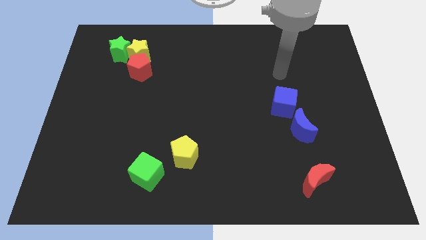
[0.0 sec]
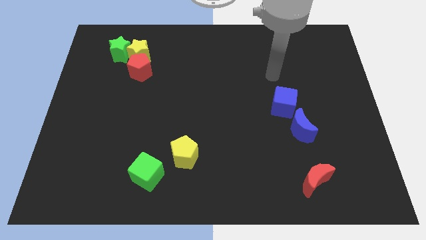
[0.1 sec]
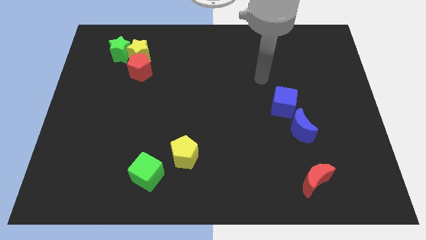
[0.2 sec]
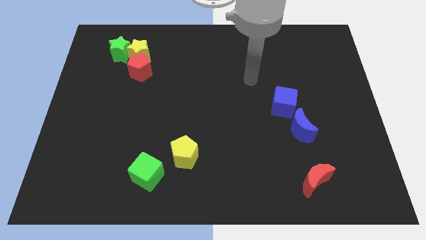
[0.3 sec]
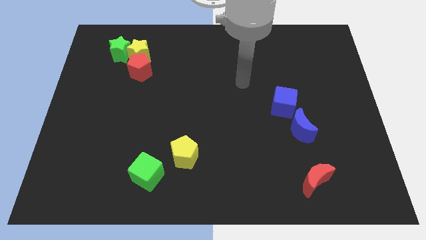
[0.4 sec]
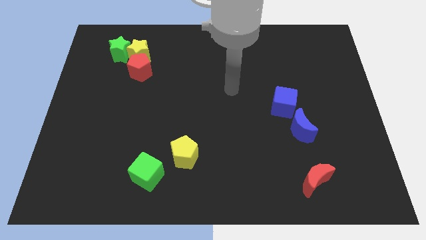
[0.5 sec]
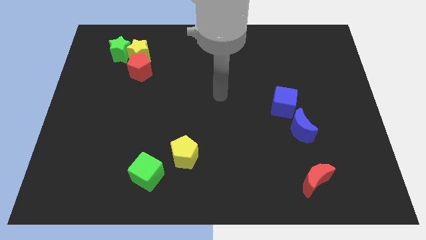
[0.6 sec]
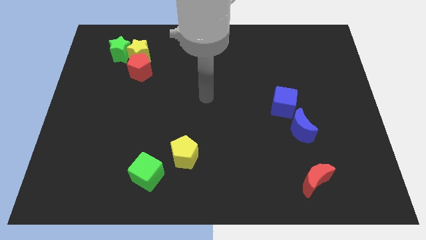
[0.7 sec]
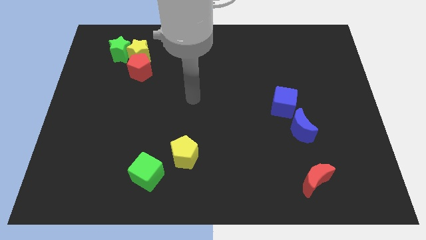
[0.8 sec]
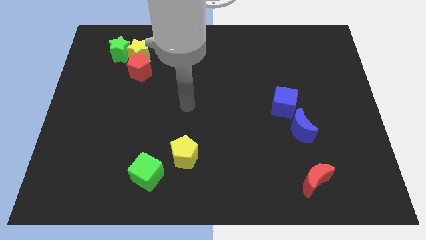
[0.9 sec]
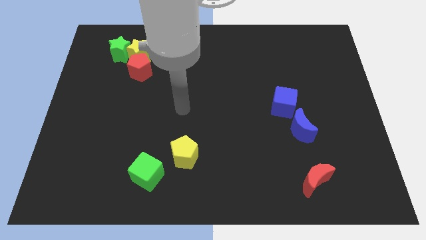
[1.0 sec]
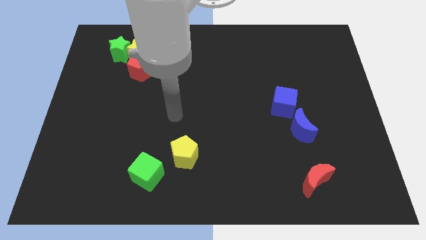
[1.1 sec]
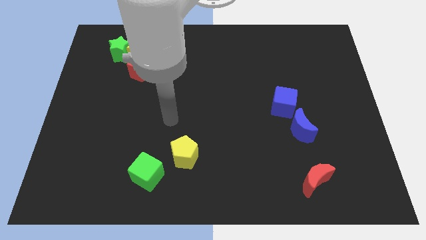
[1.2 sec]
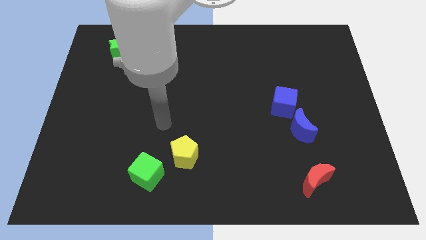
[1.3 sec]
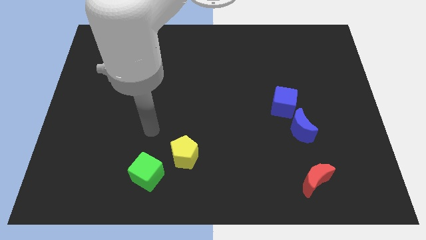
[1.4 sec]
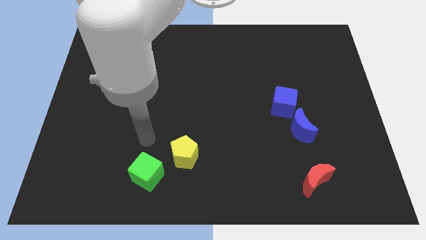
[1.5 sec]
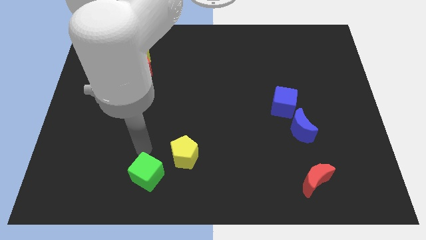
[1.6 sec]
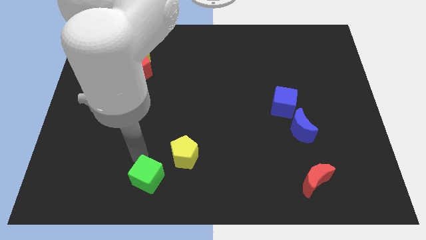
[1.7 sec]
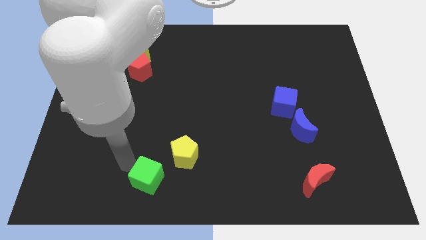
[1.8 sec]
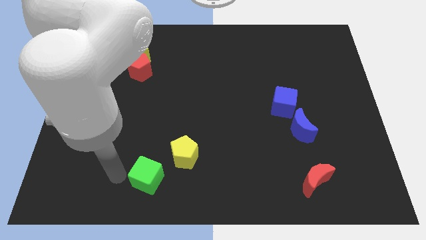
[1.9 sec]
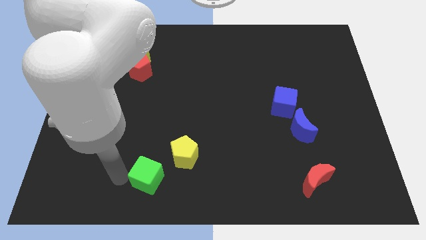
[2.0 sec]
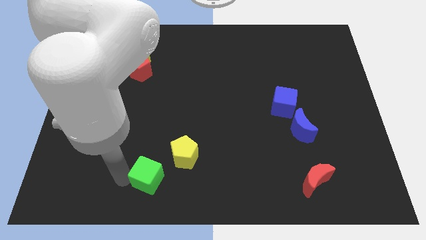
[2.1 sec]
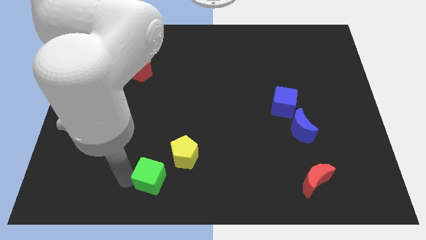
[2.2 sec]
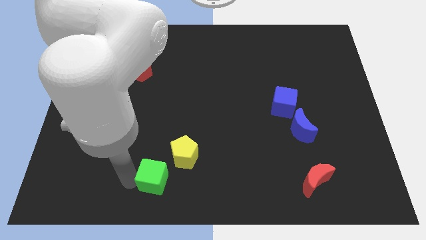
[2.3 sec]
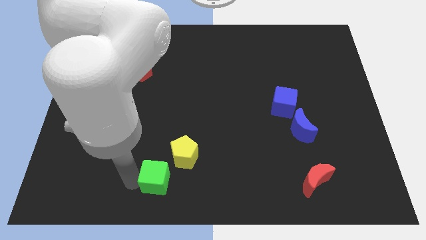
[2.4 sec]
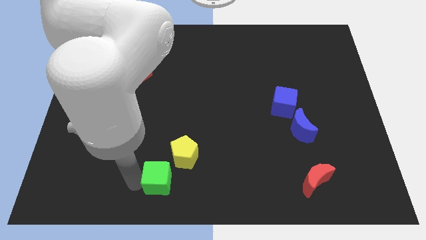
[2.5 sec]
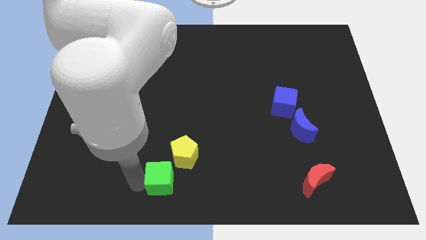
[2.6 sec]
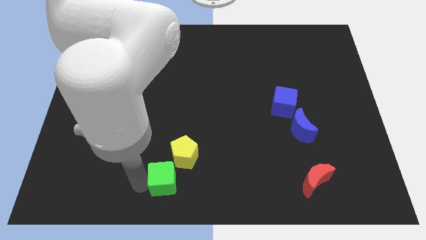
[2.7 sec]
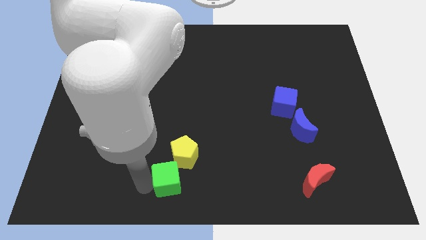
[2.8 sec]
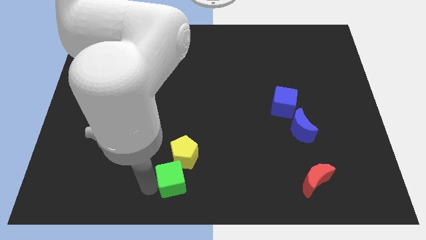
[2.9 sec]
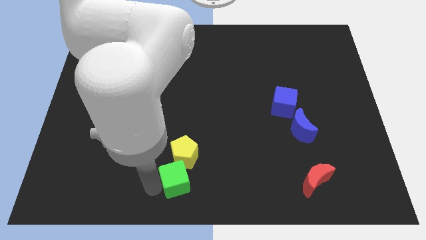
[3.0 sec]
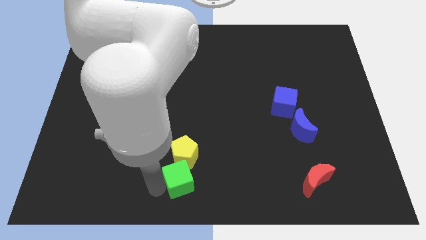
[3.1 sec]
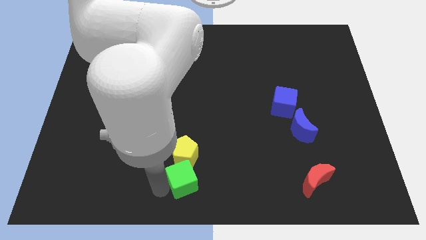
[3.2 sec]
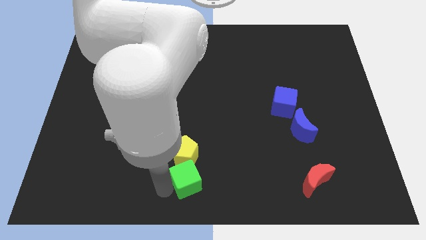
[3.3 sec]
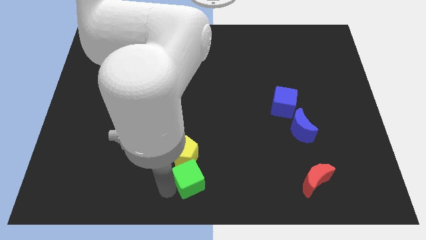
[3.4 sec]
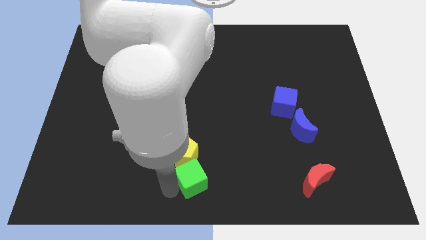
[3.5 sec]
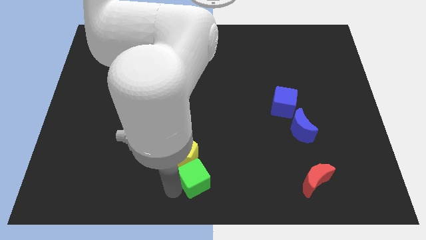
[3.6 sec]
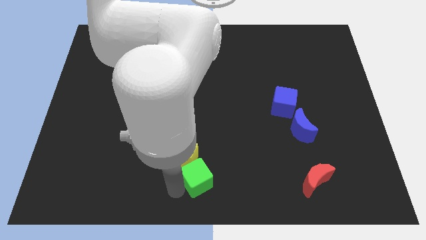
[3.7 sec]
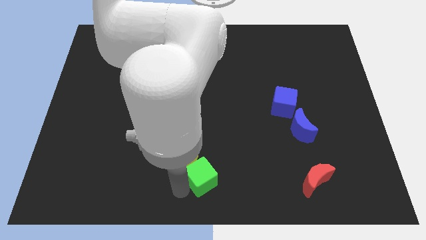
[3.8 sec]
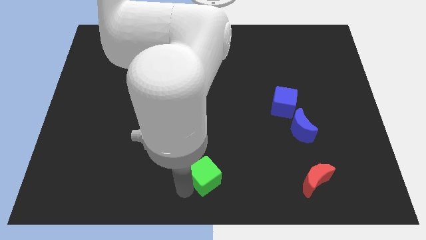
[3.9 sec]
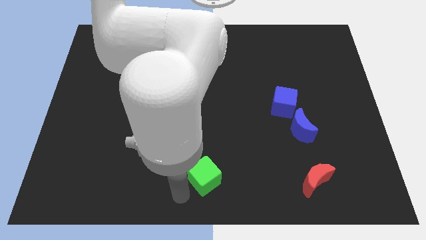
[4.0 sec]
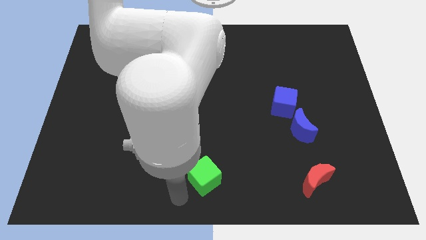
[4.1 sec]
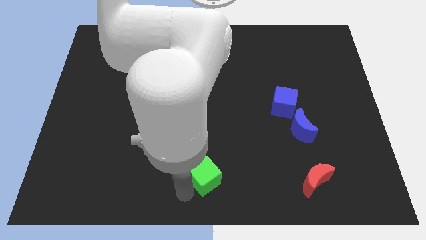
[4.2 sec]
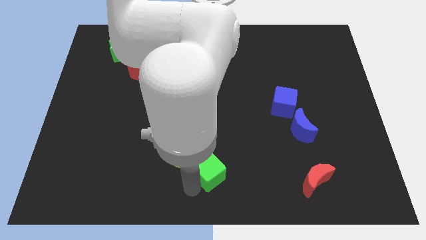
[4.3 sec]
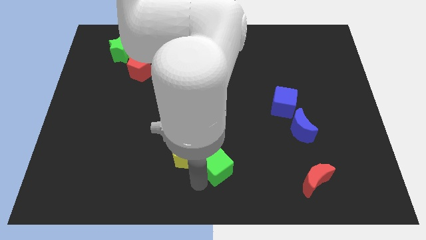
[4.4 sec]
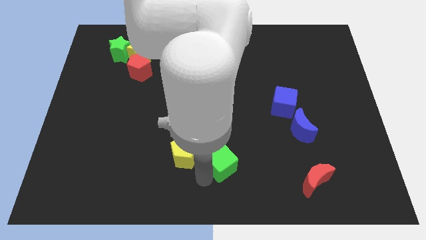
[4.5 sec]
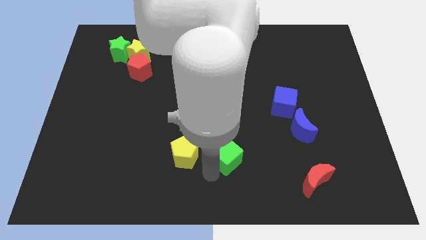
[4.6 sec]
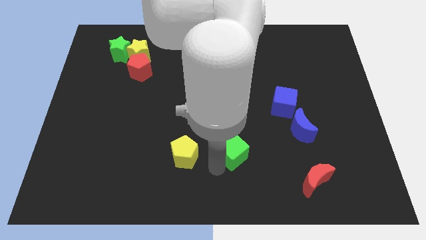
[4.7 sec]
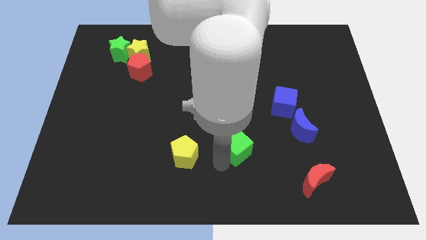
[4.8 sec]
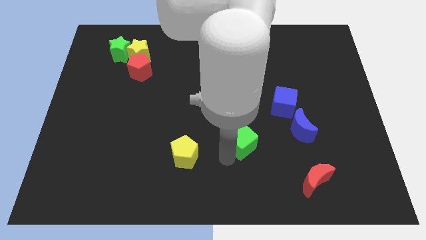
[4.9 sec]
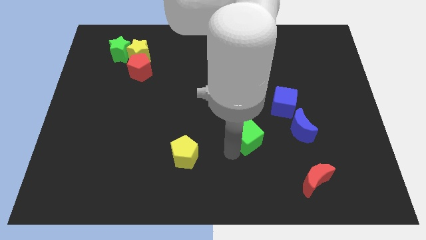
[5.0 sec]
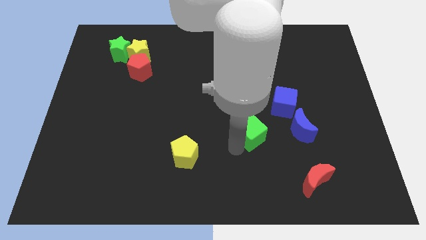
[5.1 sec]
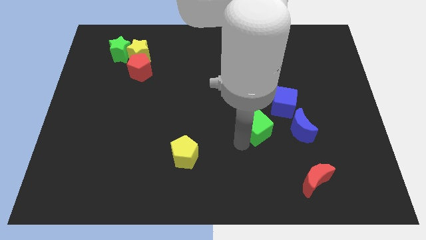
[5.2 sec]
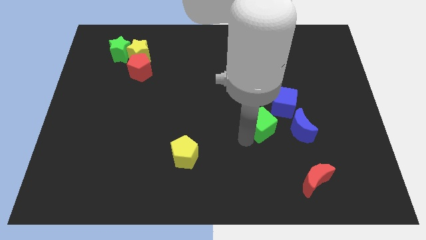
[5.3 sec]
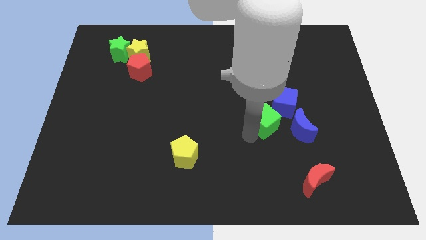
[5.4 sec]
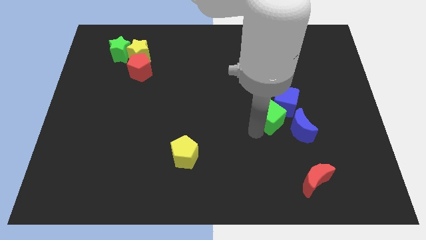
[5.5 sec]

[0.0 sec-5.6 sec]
slide the green cube towards the blue cube
